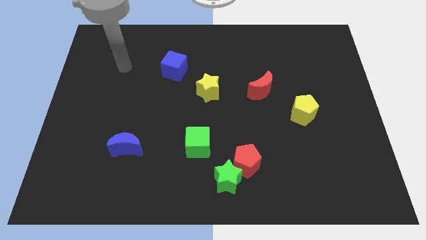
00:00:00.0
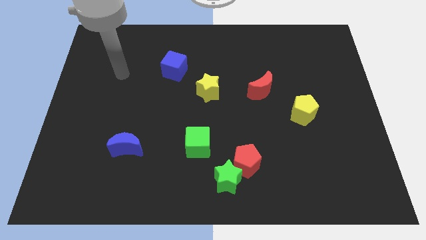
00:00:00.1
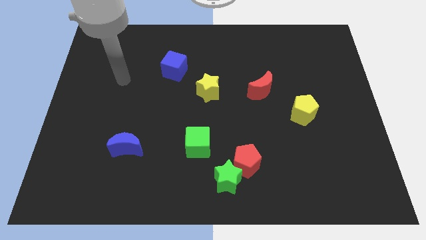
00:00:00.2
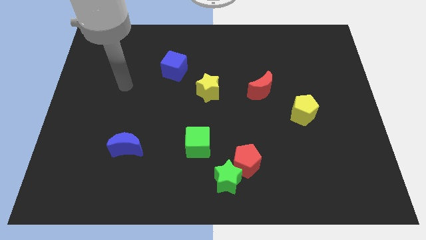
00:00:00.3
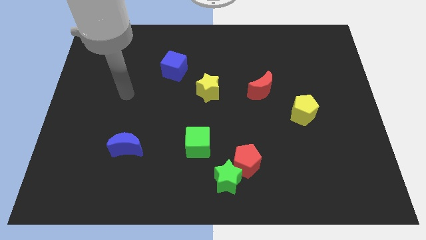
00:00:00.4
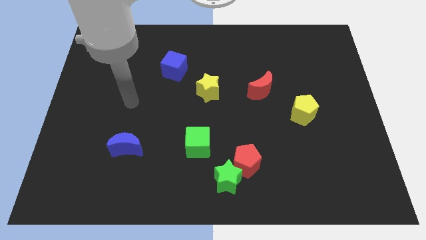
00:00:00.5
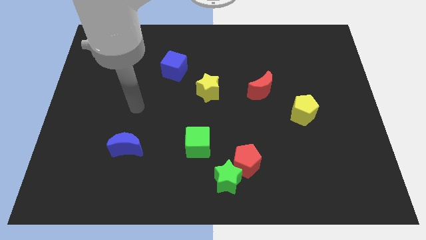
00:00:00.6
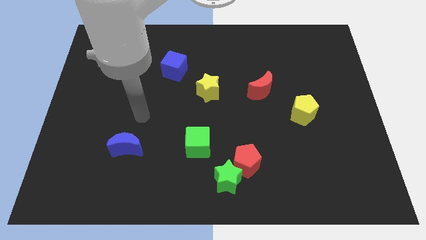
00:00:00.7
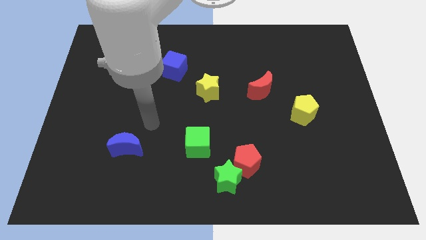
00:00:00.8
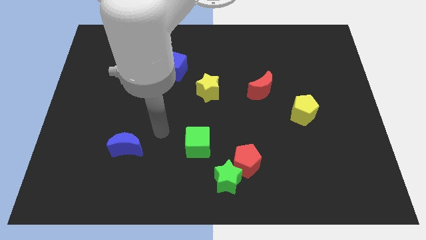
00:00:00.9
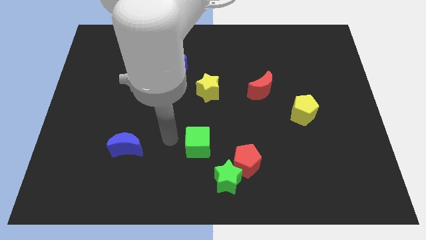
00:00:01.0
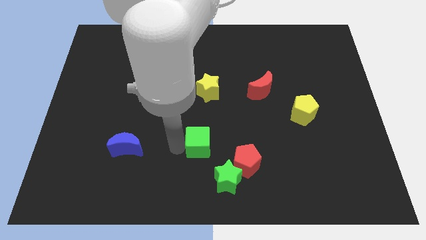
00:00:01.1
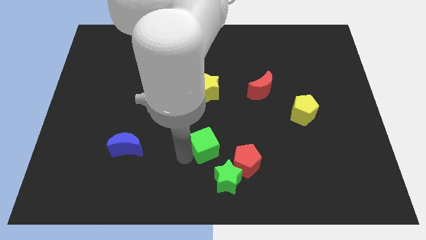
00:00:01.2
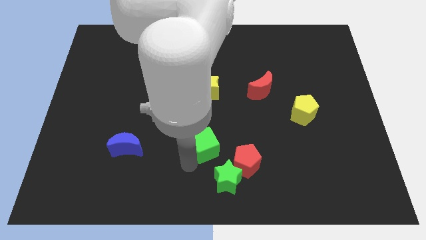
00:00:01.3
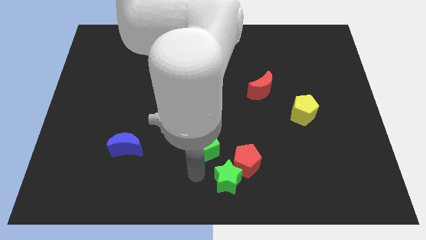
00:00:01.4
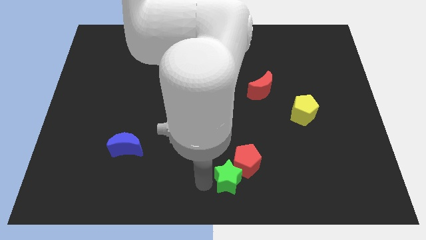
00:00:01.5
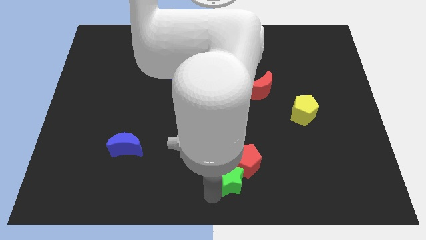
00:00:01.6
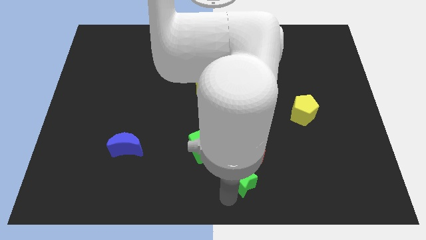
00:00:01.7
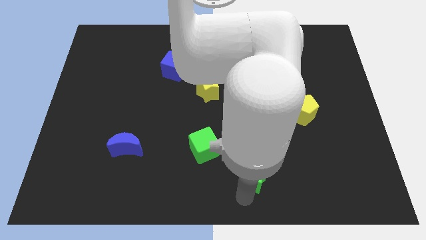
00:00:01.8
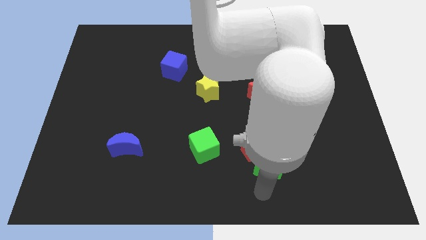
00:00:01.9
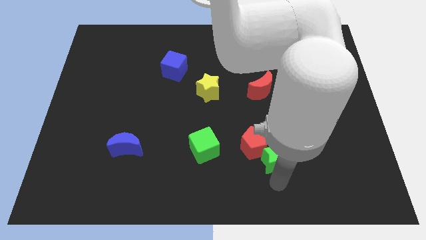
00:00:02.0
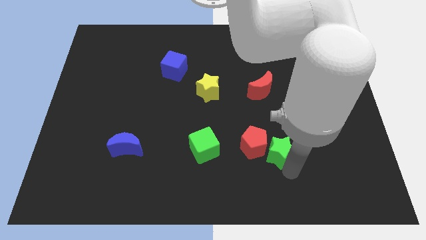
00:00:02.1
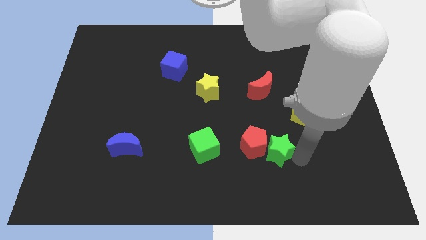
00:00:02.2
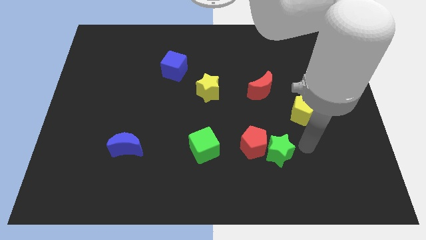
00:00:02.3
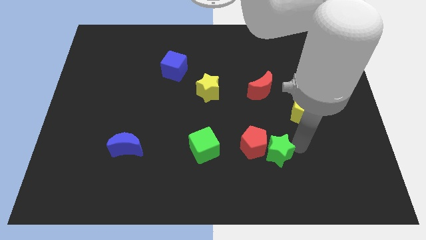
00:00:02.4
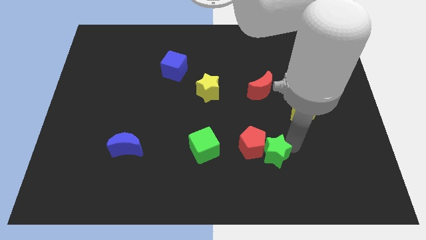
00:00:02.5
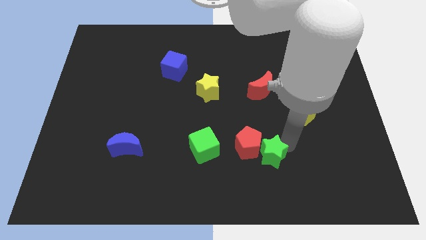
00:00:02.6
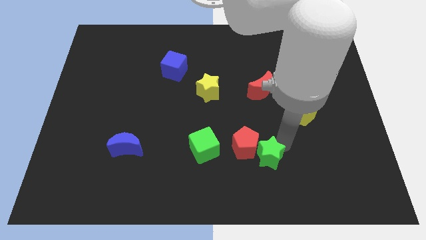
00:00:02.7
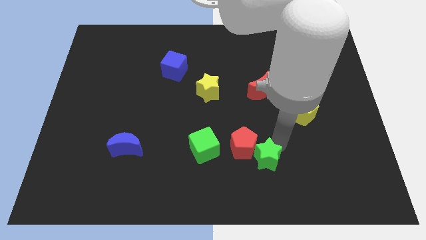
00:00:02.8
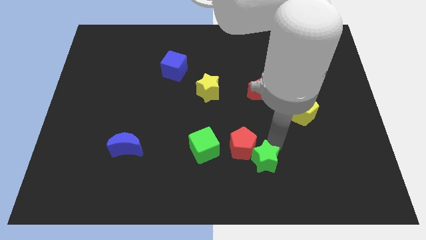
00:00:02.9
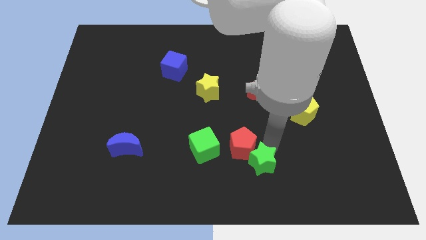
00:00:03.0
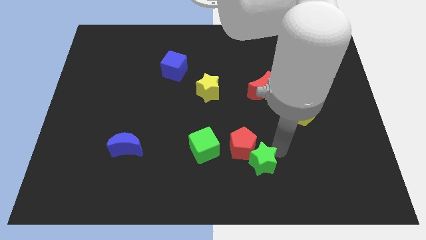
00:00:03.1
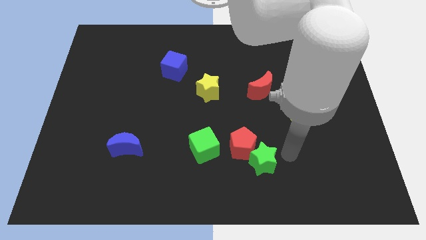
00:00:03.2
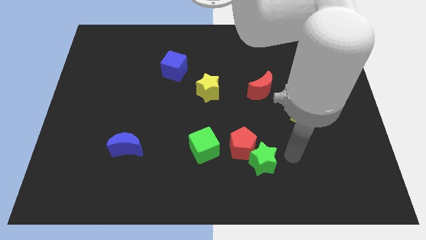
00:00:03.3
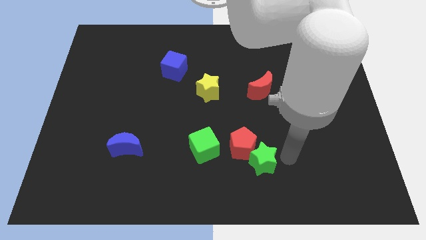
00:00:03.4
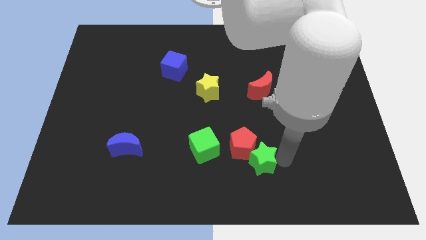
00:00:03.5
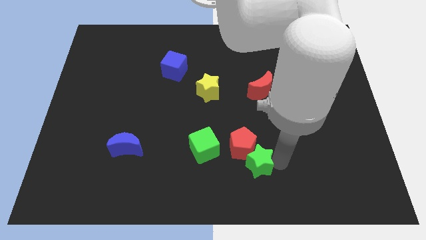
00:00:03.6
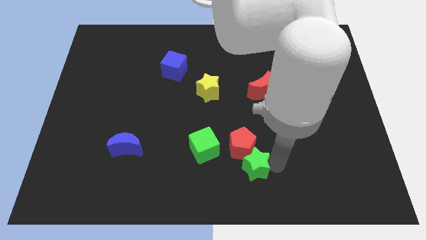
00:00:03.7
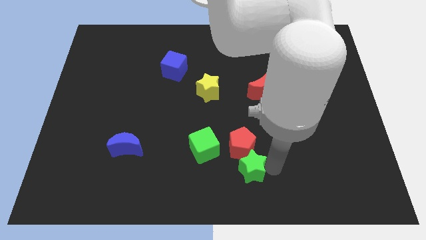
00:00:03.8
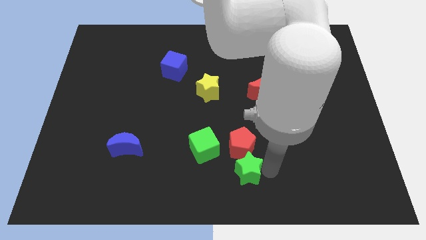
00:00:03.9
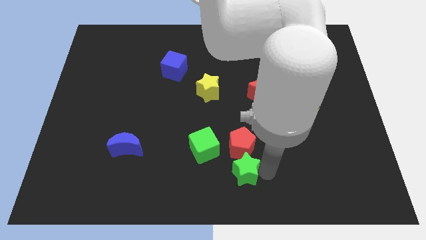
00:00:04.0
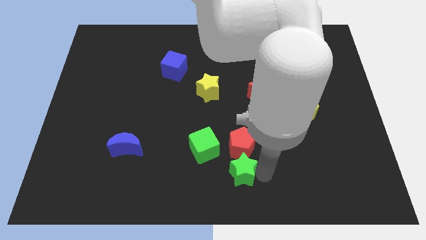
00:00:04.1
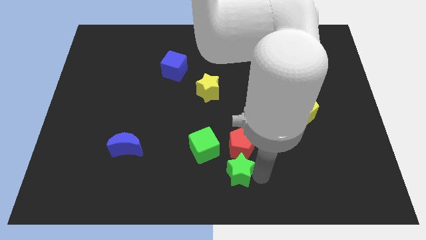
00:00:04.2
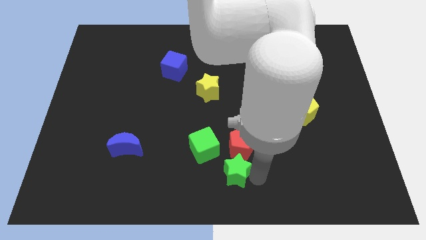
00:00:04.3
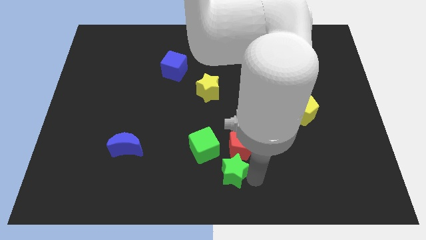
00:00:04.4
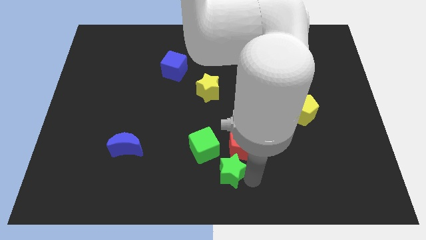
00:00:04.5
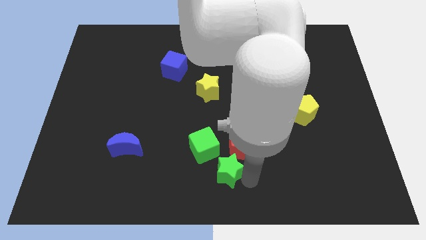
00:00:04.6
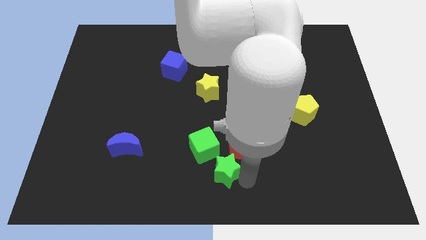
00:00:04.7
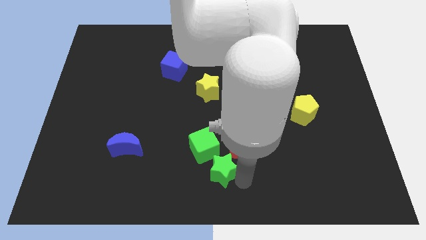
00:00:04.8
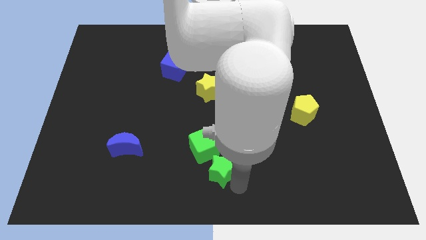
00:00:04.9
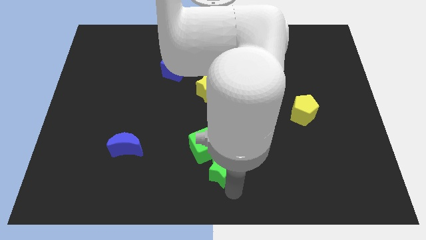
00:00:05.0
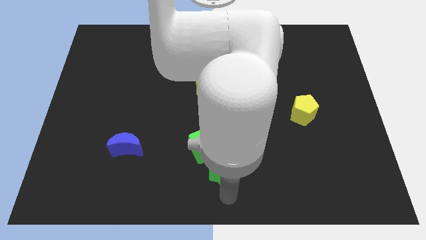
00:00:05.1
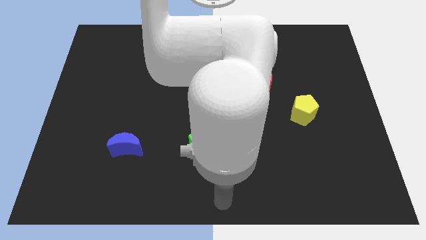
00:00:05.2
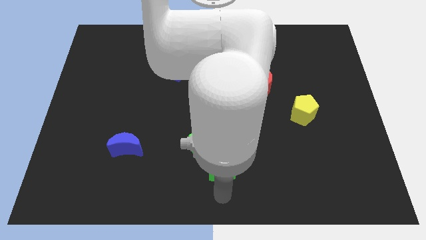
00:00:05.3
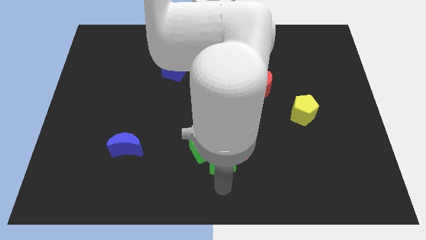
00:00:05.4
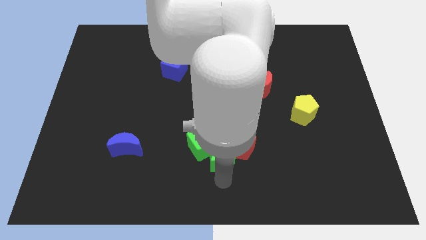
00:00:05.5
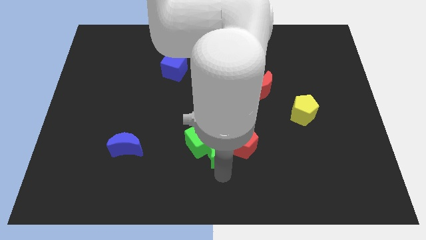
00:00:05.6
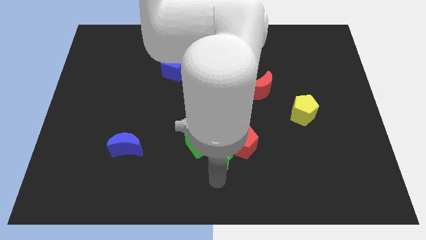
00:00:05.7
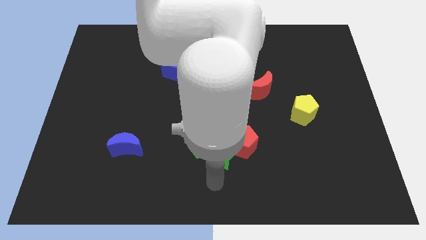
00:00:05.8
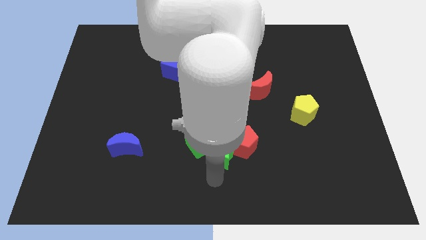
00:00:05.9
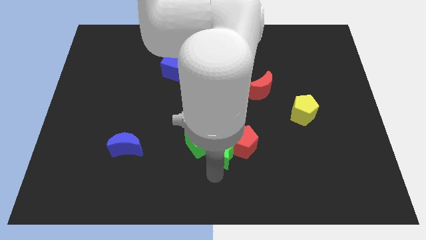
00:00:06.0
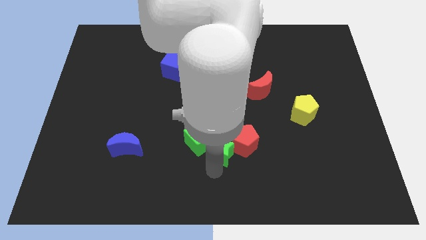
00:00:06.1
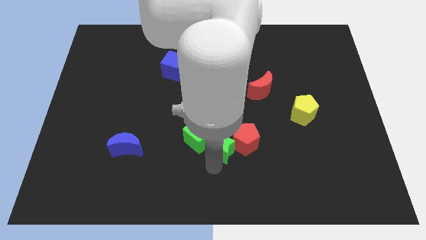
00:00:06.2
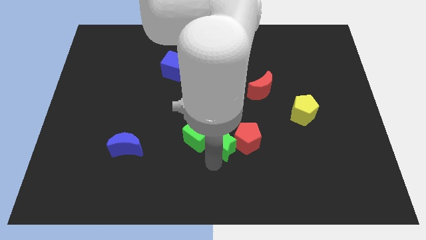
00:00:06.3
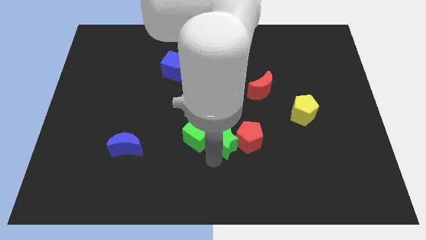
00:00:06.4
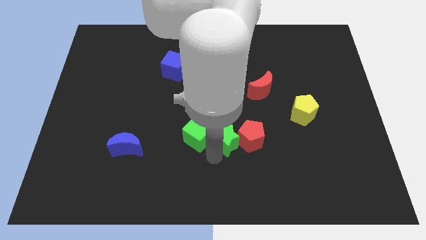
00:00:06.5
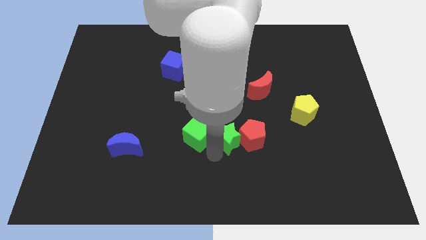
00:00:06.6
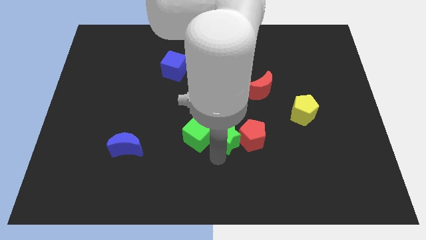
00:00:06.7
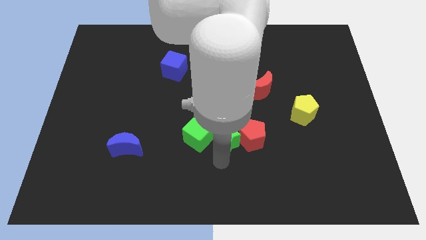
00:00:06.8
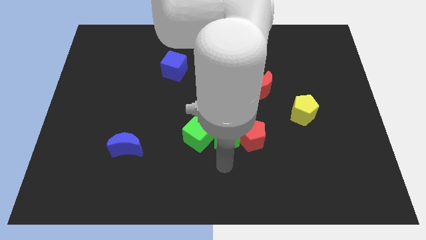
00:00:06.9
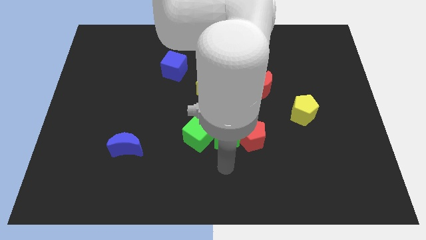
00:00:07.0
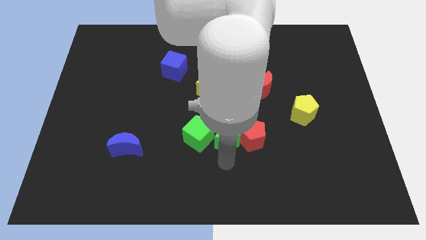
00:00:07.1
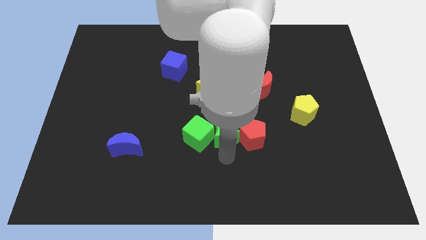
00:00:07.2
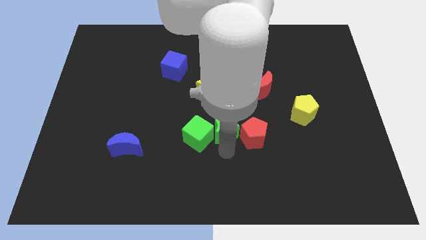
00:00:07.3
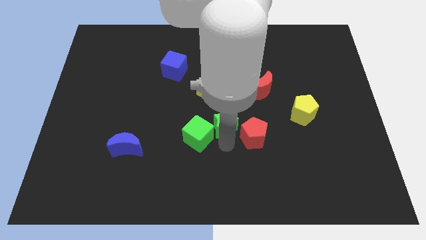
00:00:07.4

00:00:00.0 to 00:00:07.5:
push the green star to the bottom right of the yellow star
